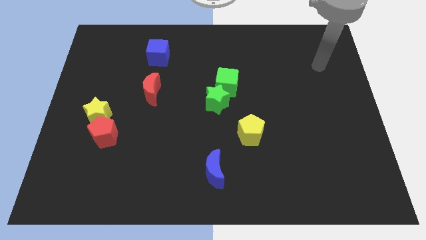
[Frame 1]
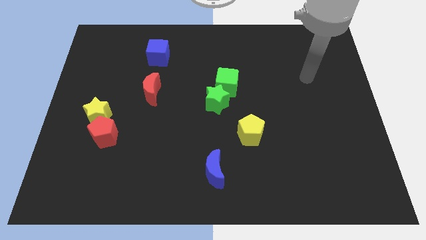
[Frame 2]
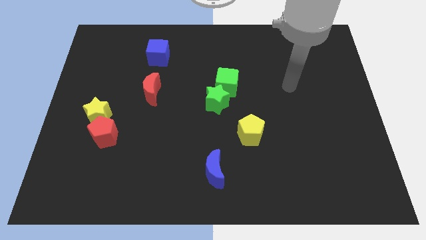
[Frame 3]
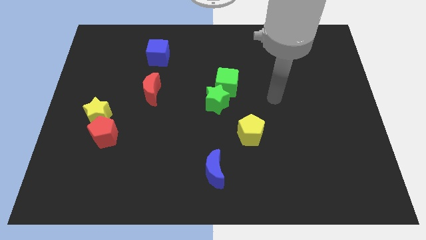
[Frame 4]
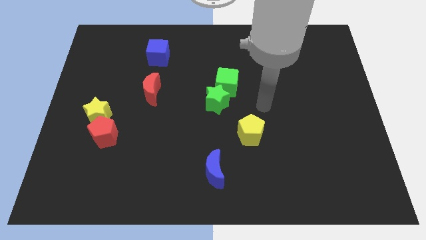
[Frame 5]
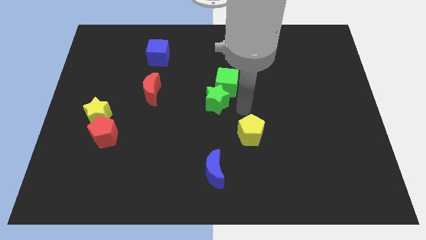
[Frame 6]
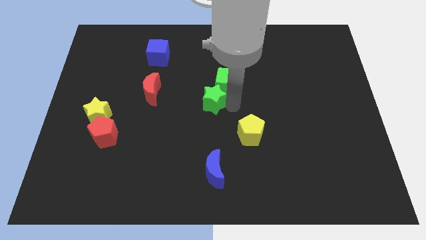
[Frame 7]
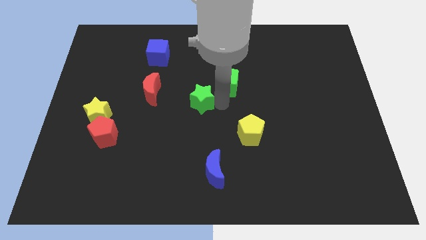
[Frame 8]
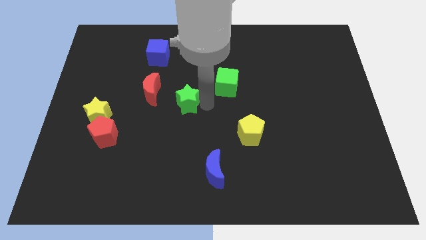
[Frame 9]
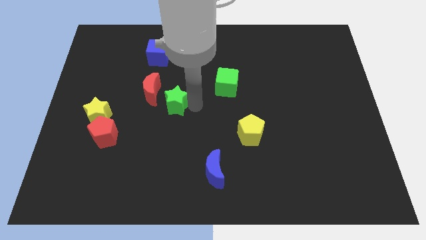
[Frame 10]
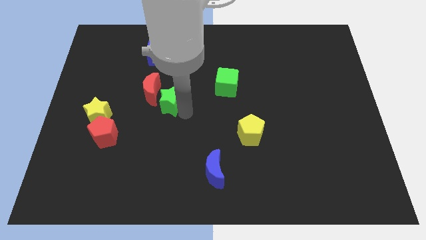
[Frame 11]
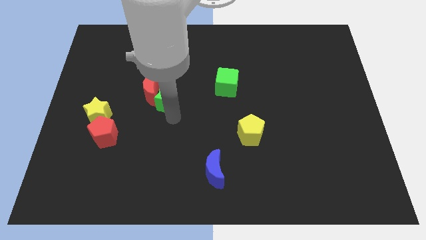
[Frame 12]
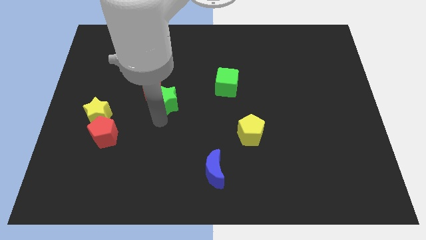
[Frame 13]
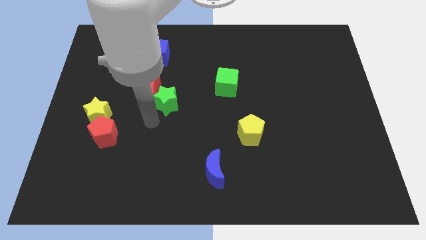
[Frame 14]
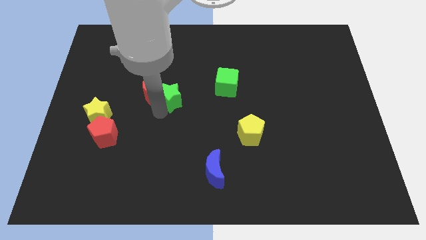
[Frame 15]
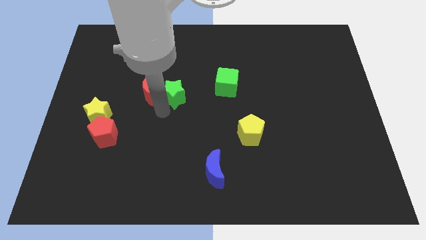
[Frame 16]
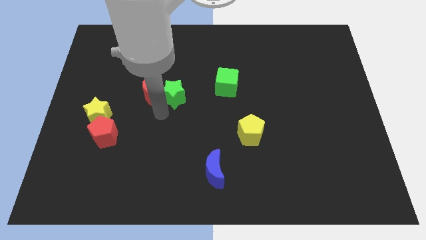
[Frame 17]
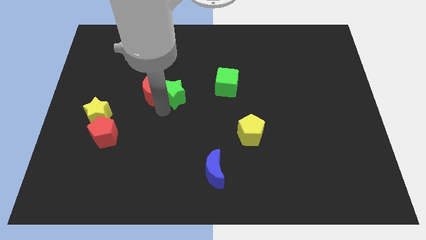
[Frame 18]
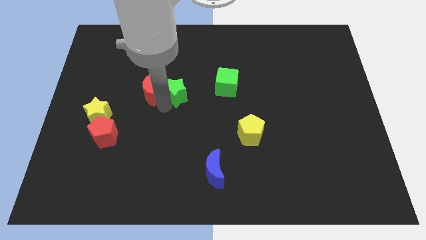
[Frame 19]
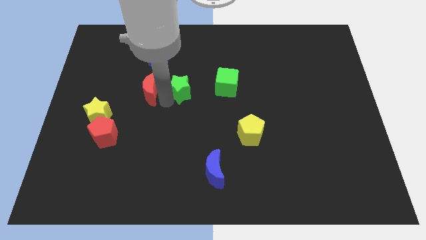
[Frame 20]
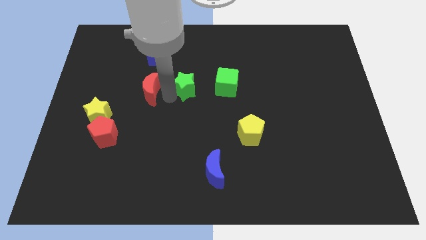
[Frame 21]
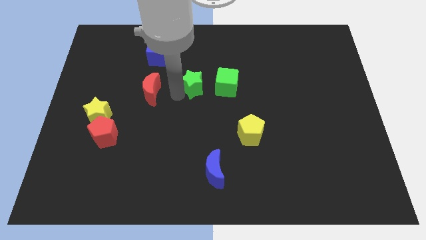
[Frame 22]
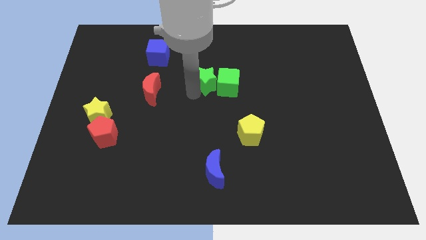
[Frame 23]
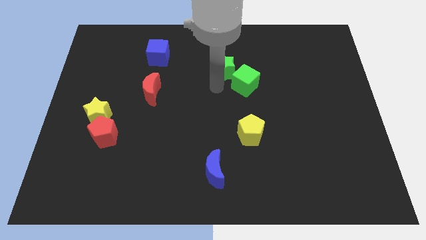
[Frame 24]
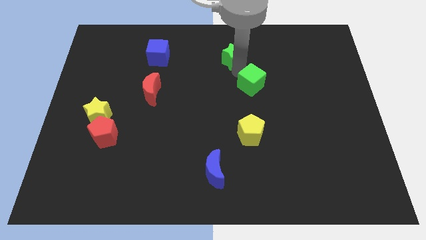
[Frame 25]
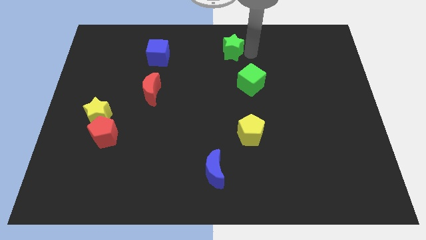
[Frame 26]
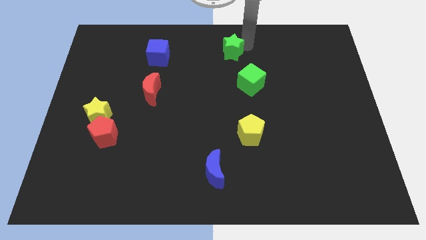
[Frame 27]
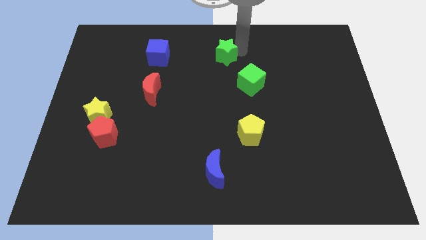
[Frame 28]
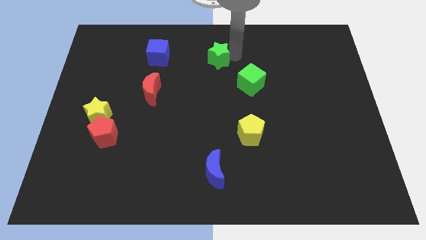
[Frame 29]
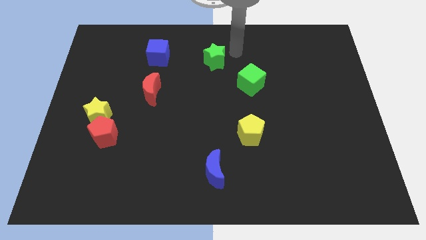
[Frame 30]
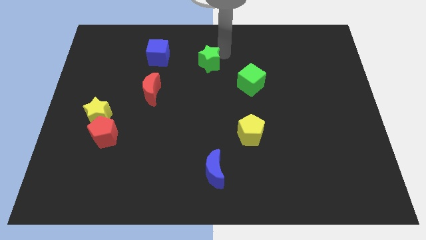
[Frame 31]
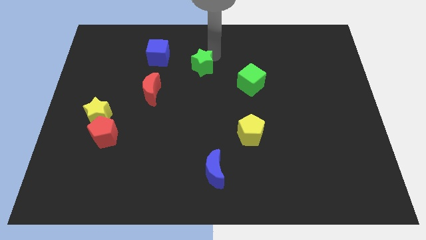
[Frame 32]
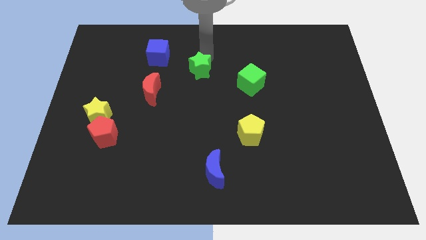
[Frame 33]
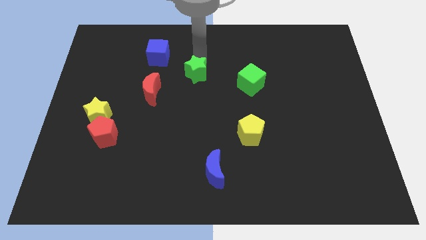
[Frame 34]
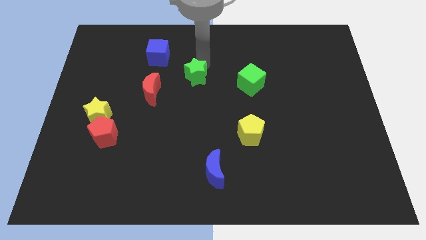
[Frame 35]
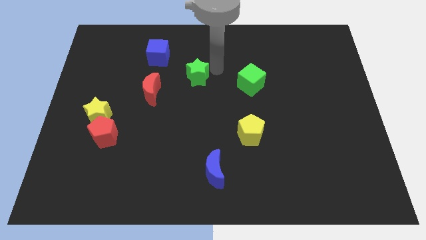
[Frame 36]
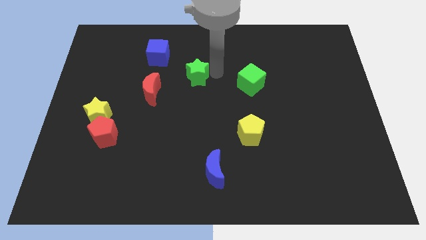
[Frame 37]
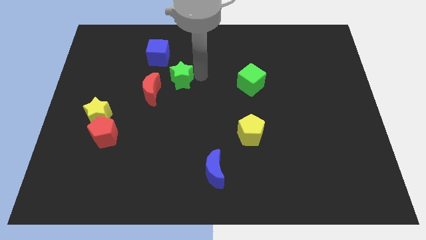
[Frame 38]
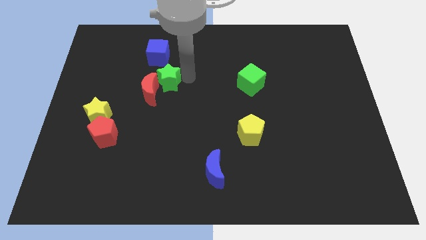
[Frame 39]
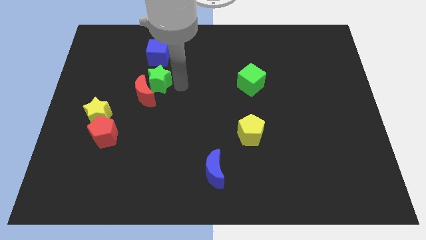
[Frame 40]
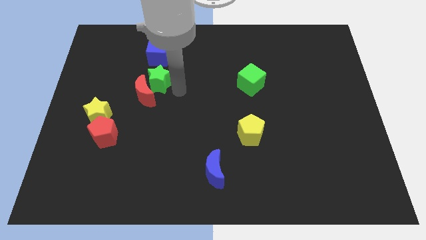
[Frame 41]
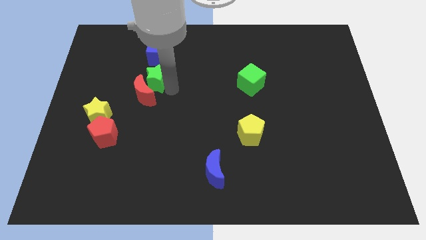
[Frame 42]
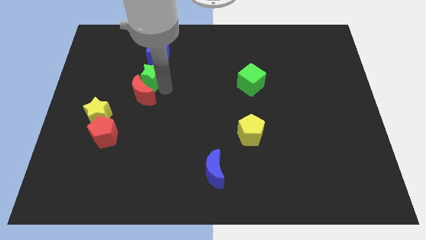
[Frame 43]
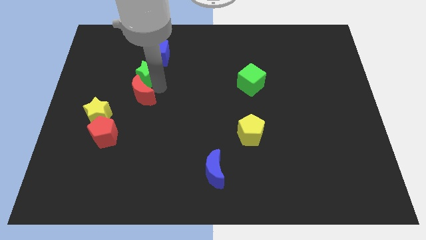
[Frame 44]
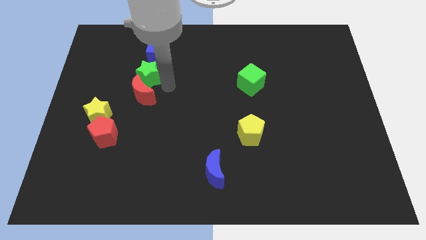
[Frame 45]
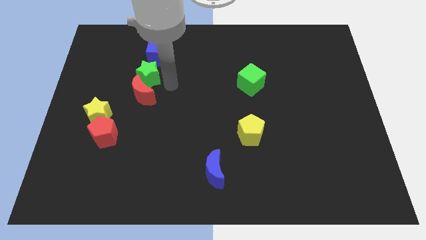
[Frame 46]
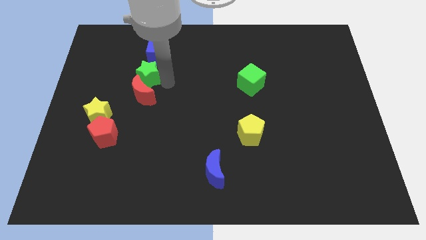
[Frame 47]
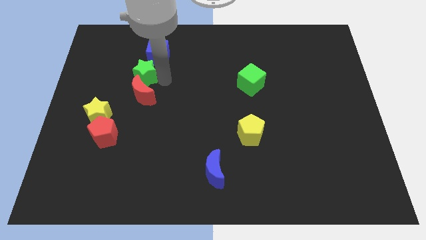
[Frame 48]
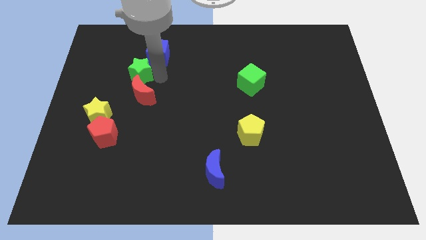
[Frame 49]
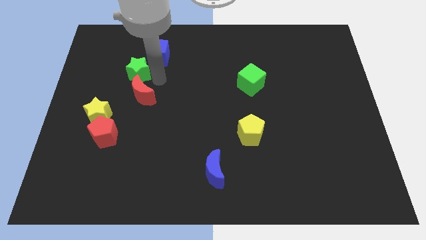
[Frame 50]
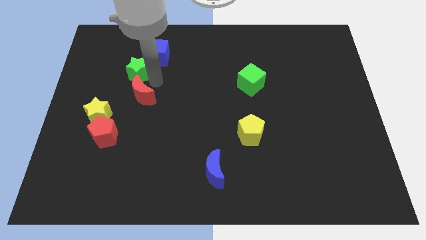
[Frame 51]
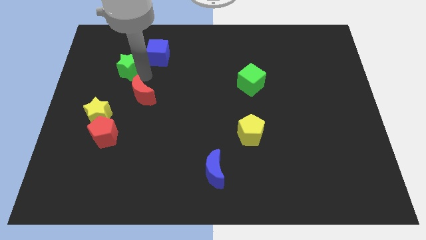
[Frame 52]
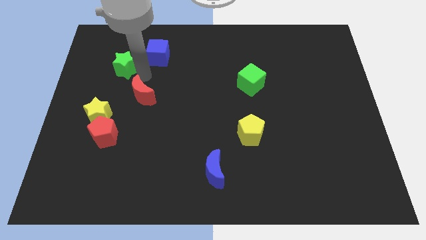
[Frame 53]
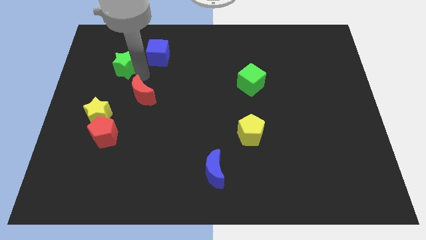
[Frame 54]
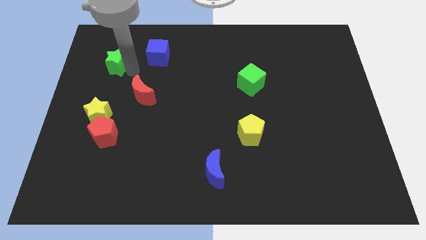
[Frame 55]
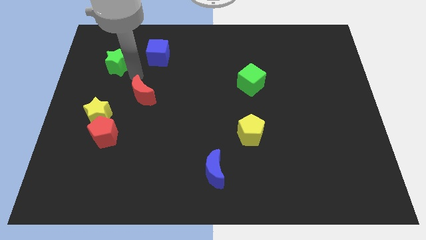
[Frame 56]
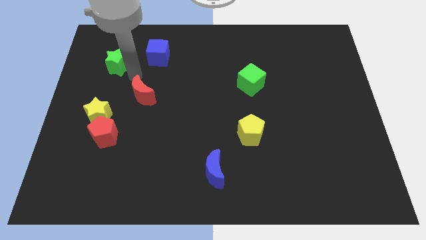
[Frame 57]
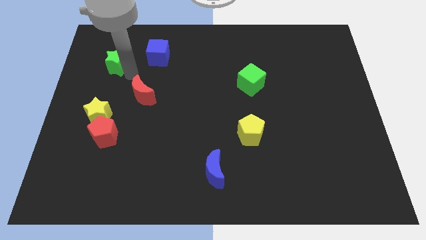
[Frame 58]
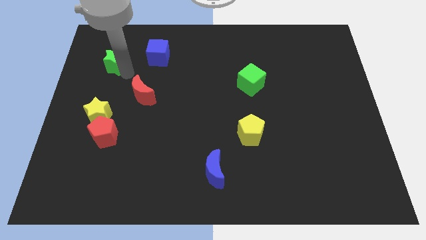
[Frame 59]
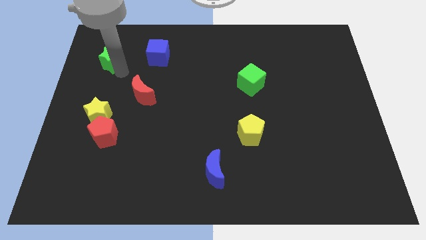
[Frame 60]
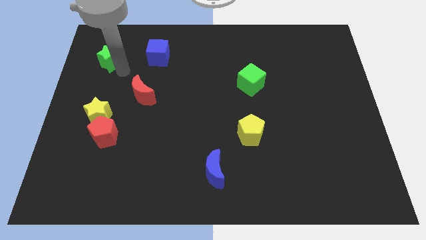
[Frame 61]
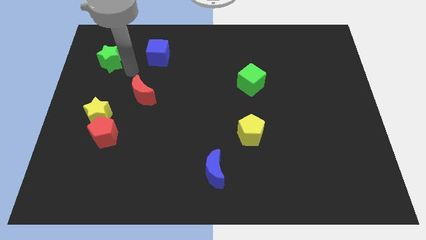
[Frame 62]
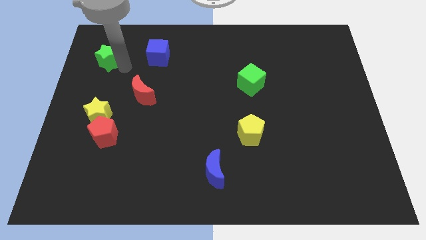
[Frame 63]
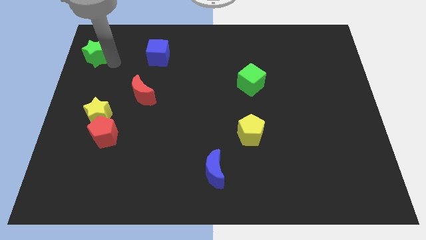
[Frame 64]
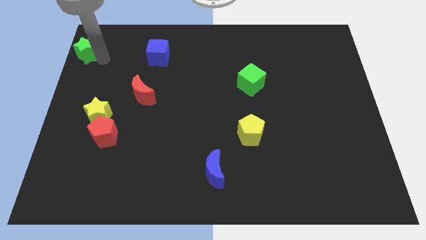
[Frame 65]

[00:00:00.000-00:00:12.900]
push the green star to the top left

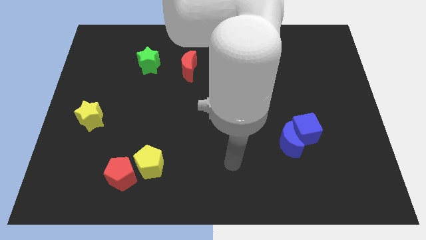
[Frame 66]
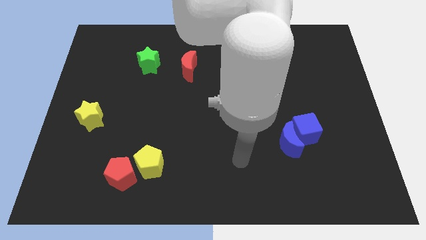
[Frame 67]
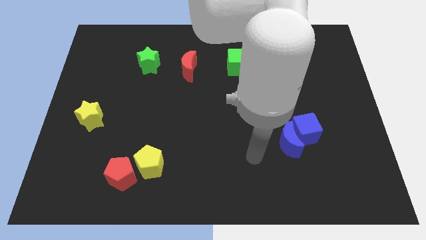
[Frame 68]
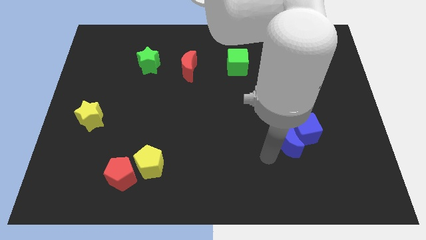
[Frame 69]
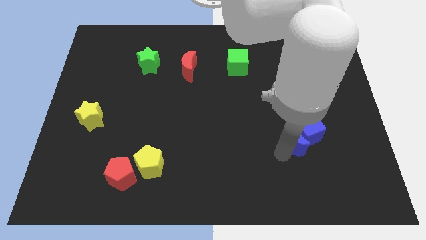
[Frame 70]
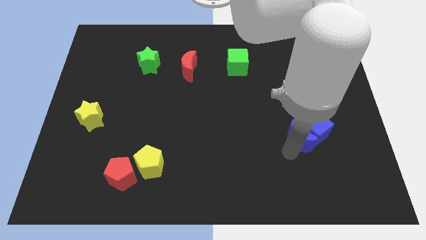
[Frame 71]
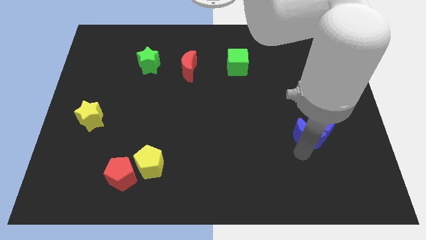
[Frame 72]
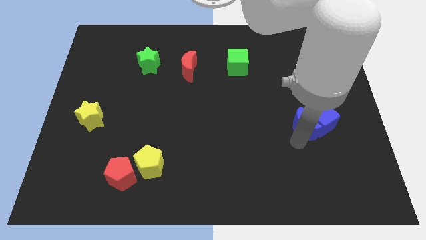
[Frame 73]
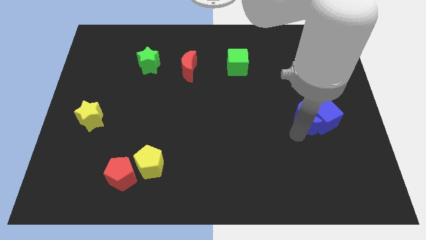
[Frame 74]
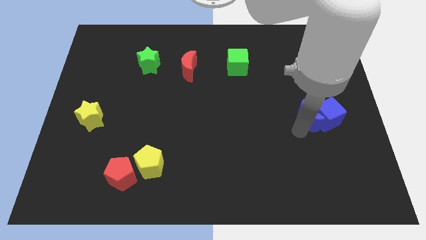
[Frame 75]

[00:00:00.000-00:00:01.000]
put the blue cube to the right side of the board
